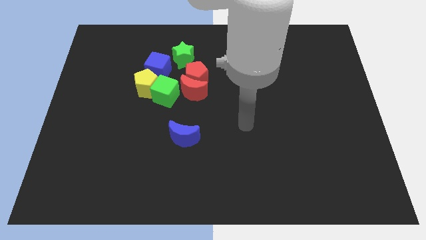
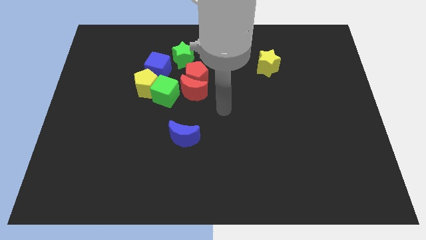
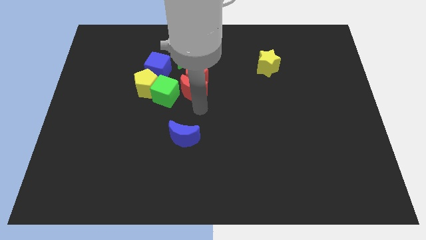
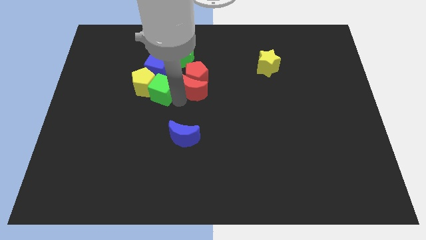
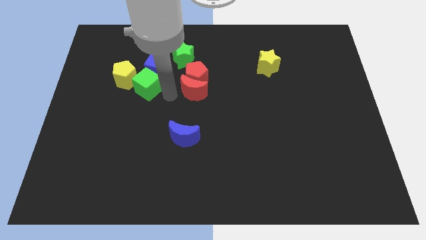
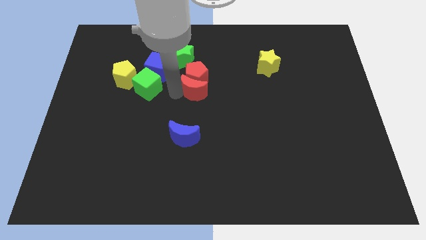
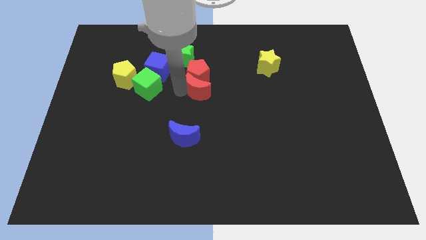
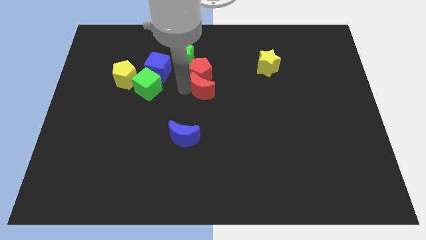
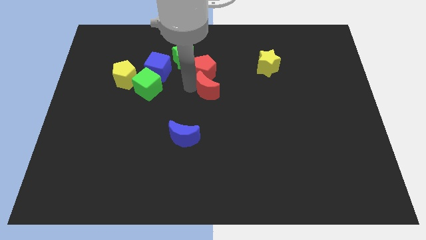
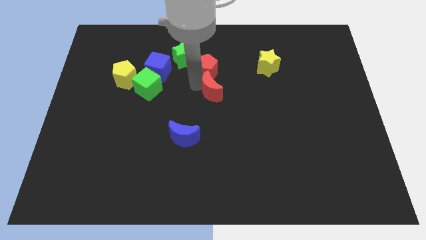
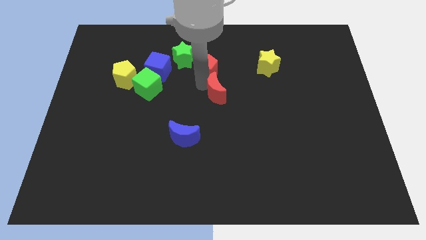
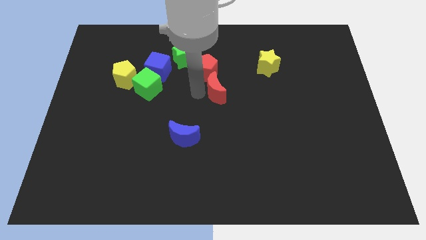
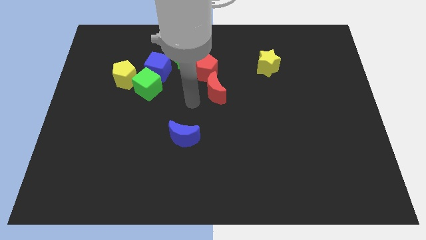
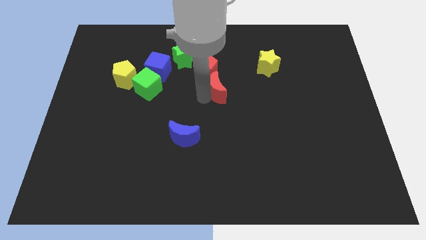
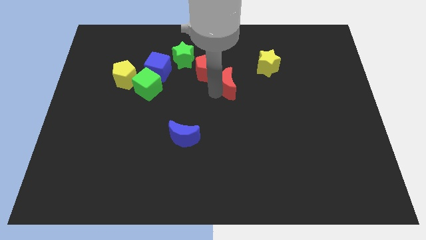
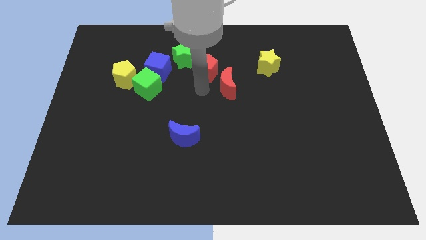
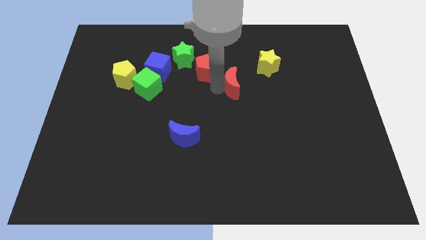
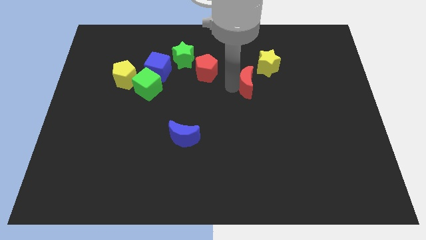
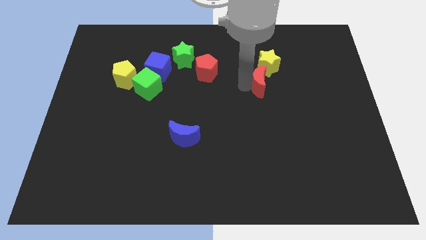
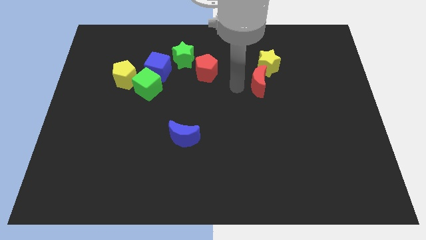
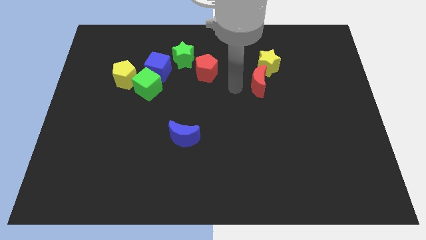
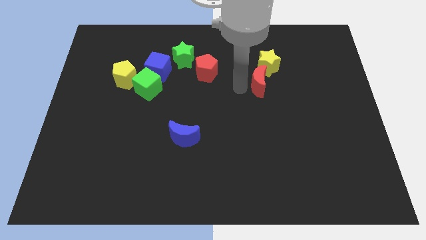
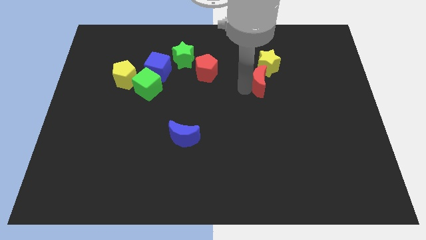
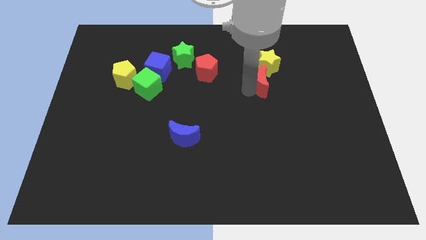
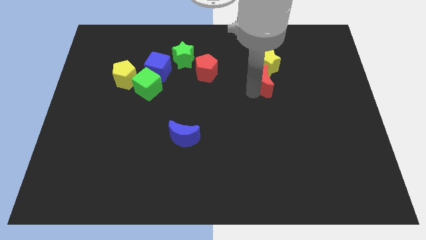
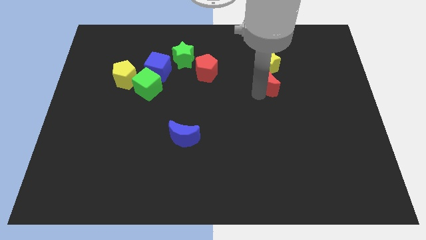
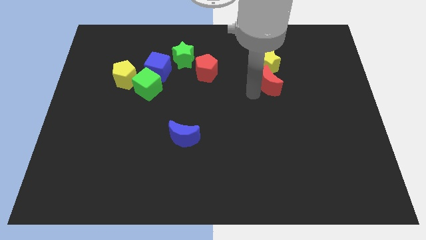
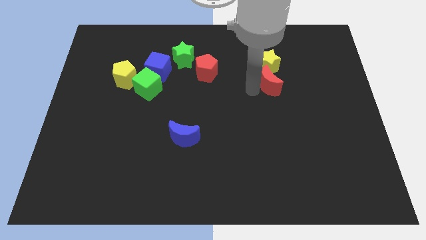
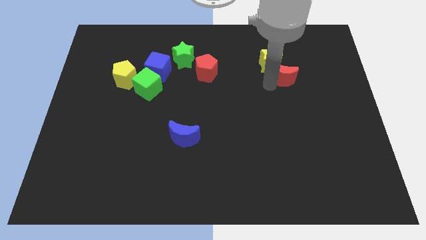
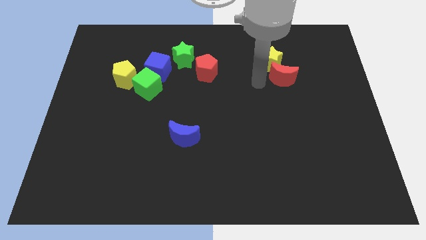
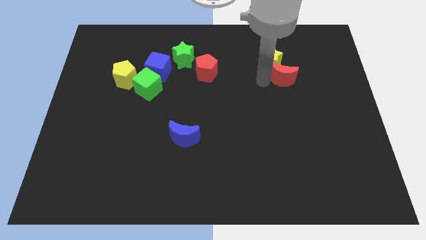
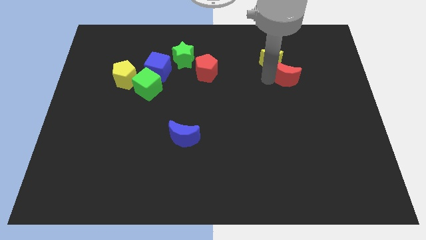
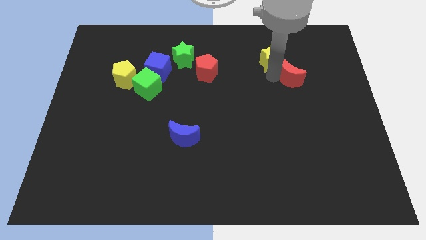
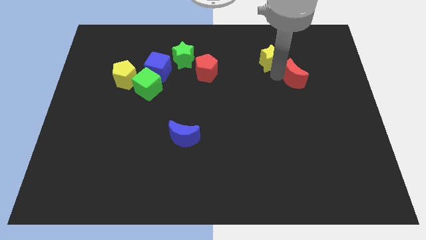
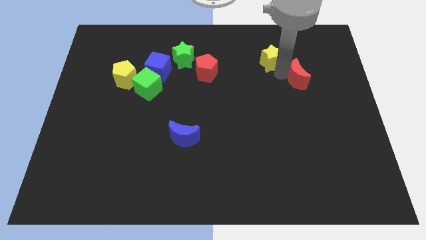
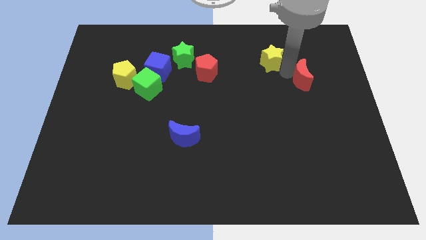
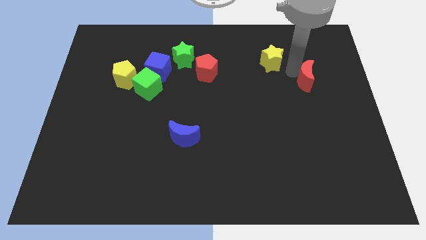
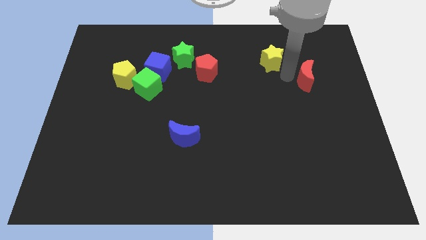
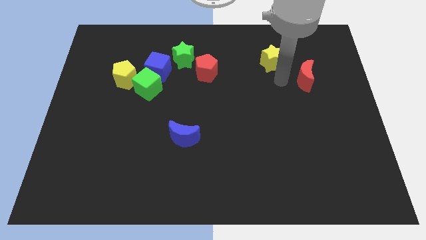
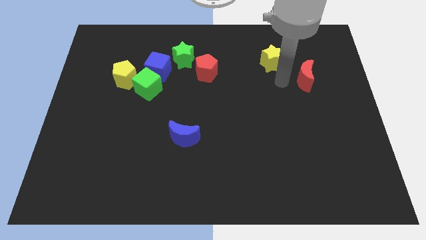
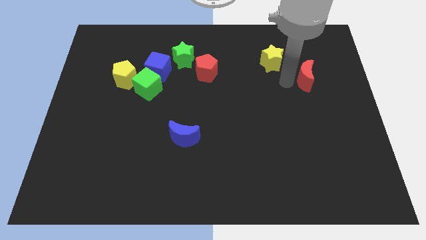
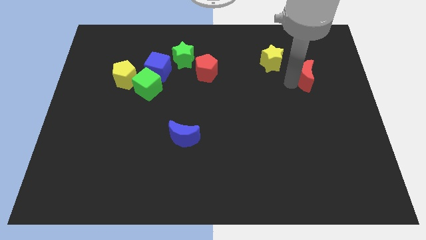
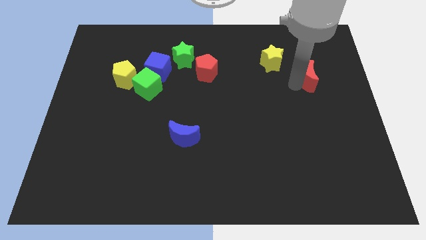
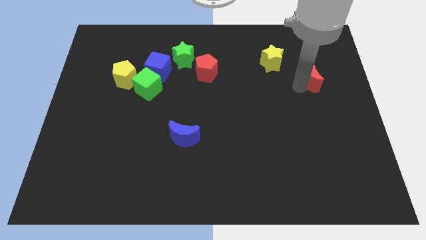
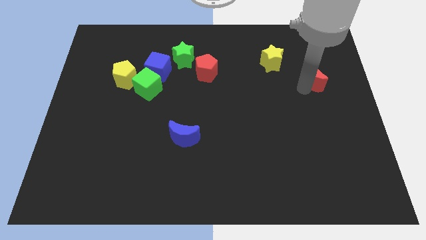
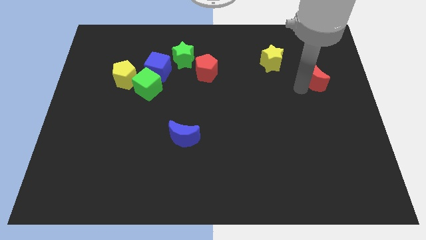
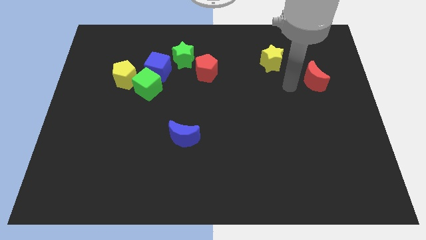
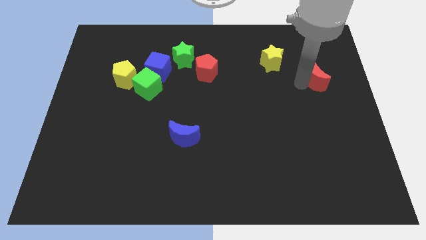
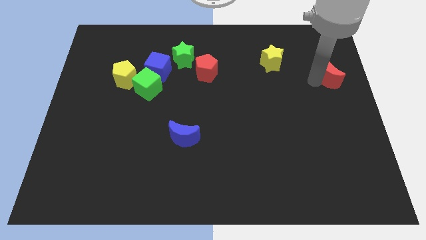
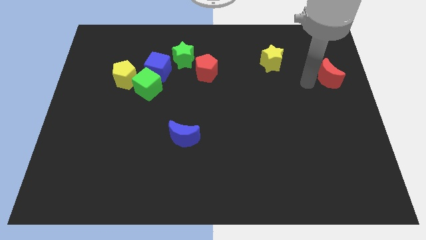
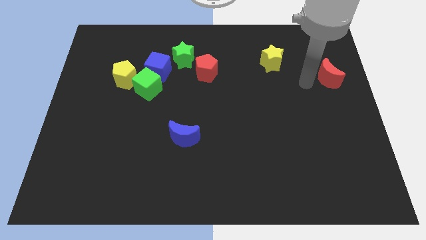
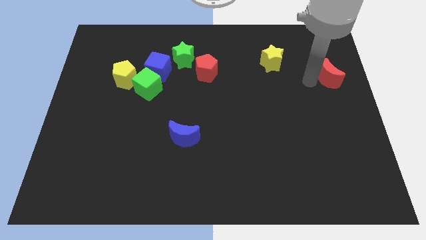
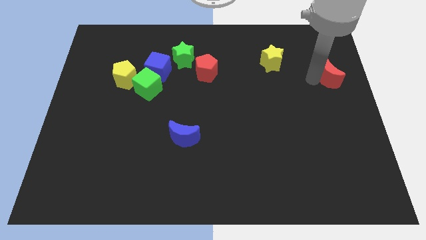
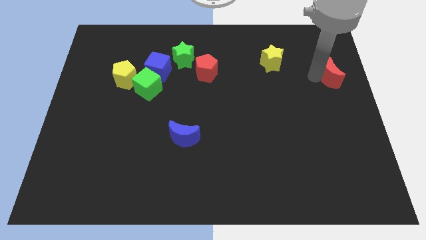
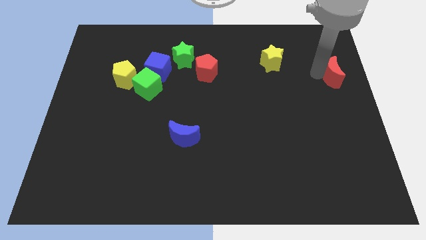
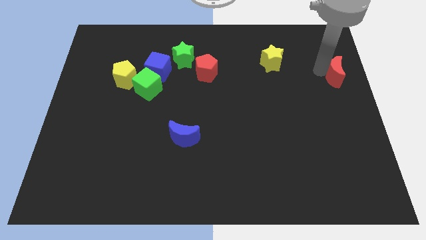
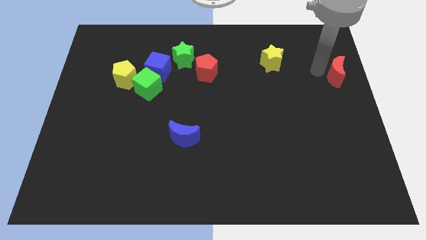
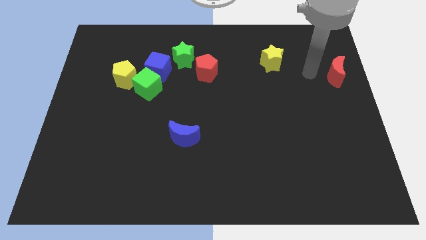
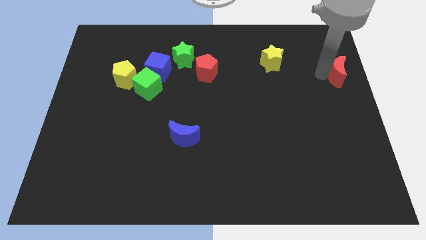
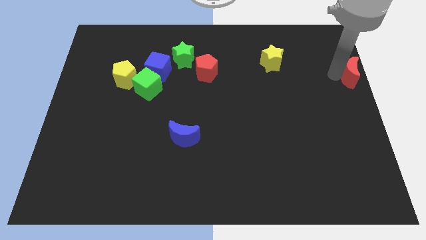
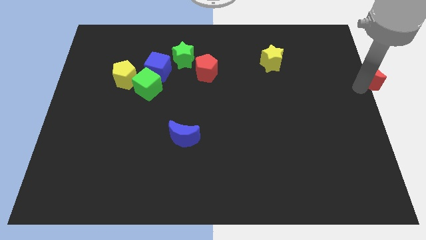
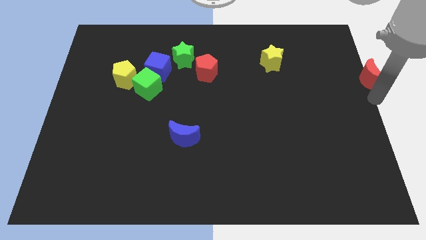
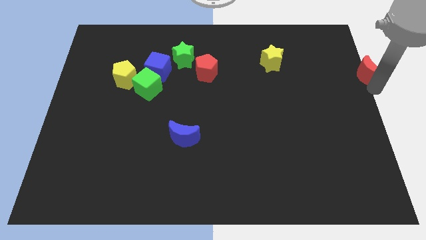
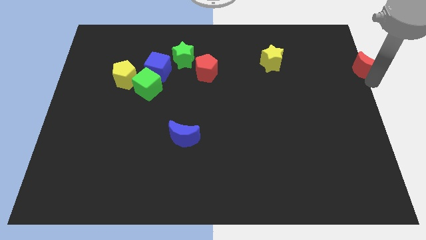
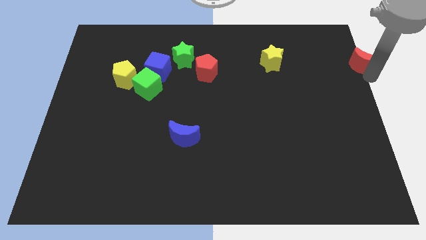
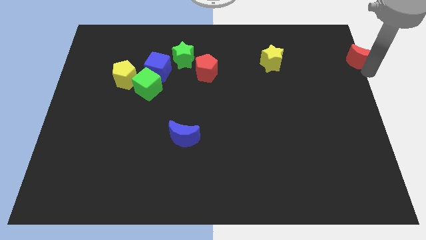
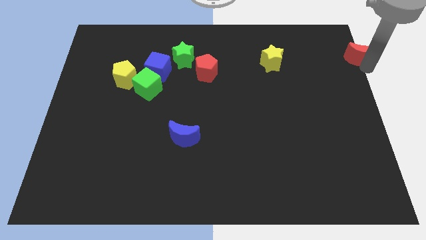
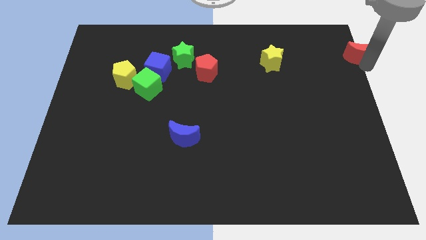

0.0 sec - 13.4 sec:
push the red moon to the top right of the board

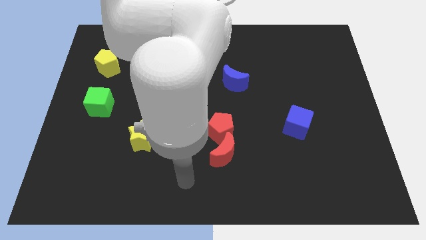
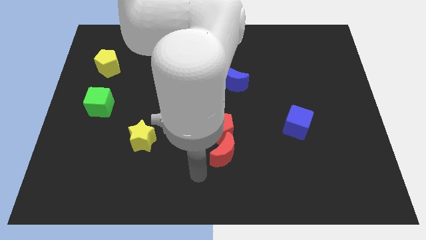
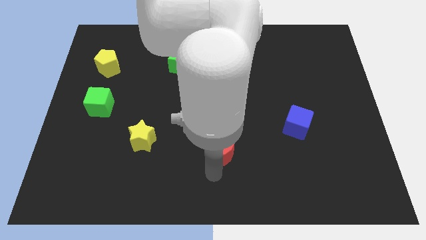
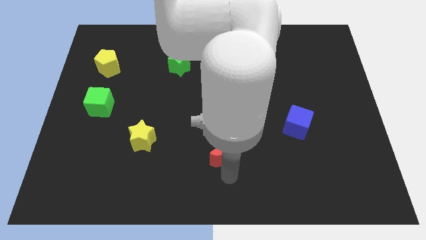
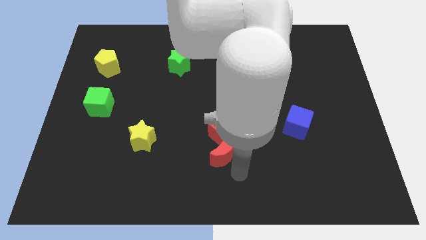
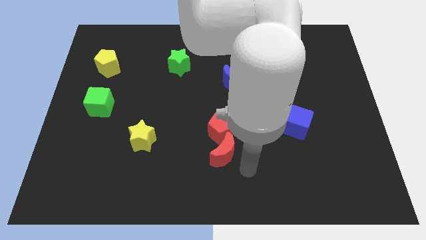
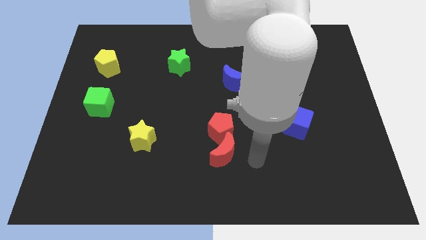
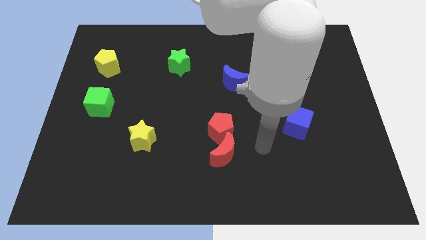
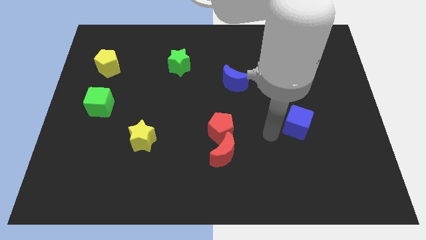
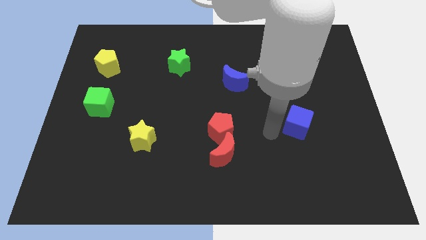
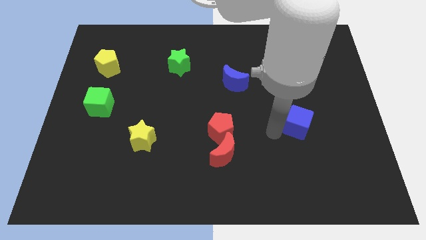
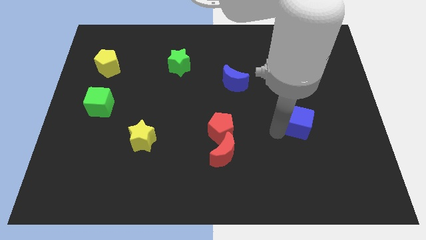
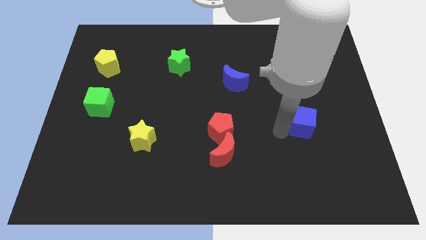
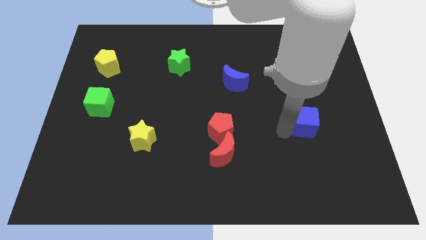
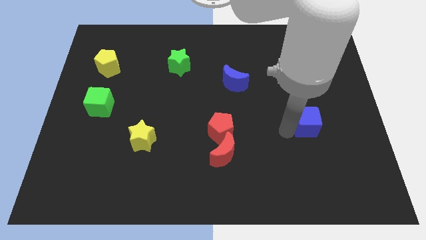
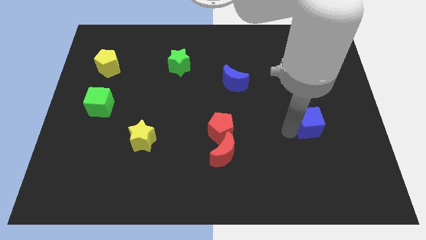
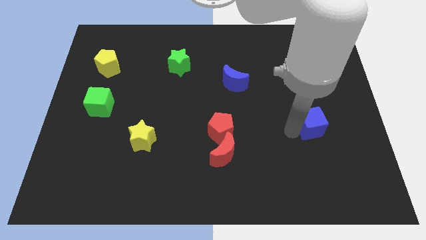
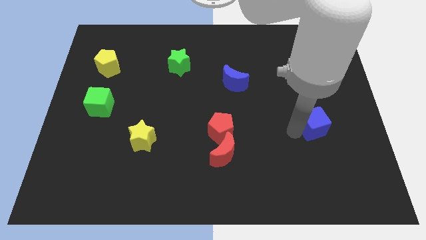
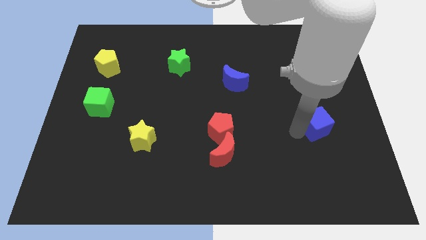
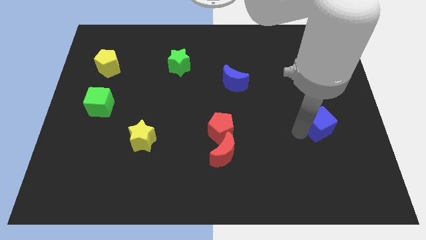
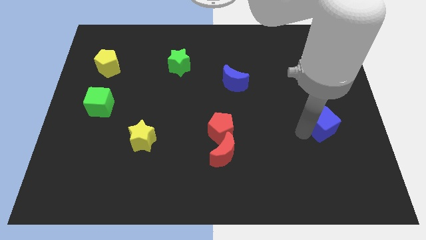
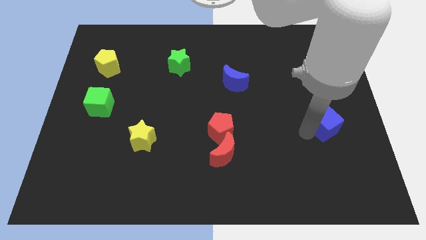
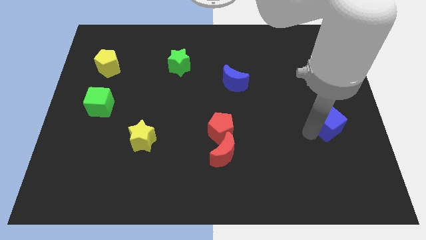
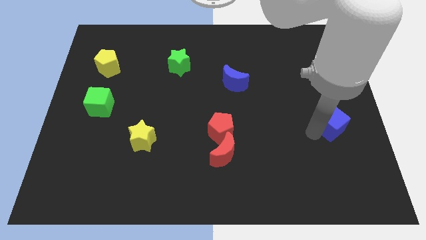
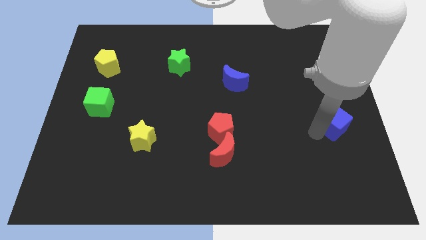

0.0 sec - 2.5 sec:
push the blue cube to the right side of the board
